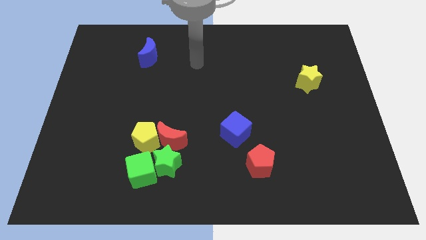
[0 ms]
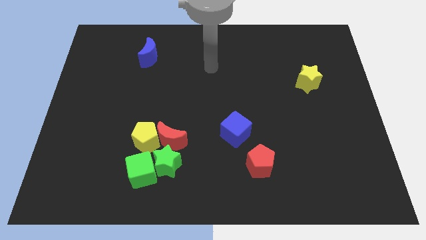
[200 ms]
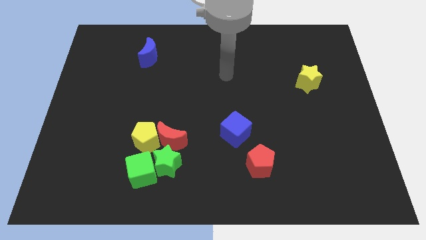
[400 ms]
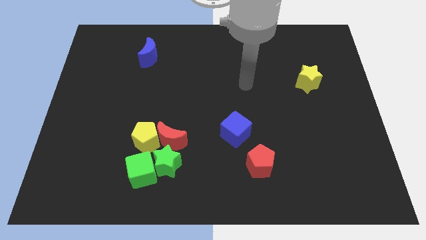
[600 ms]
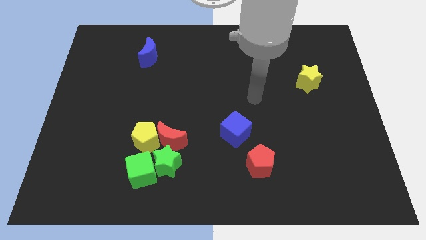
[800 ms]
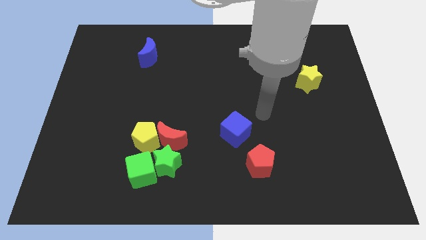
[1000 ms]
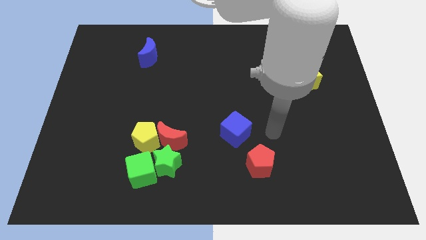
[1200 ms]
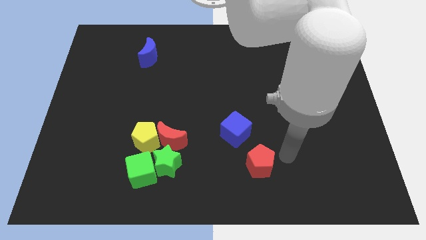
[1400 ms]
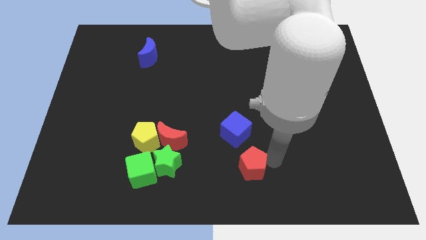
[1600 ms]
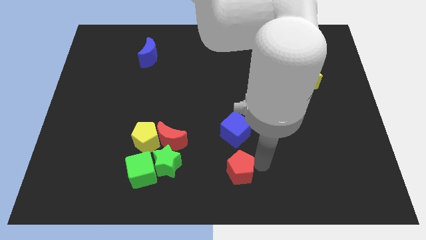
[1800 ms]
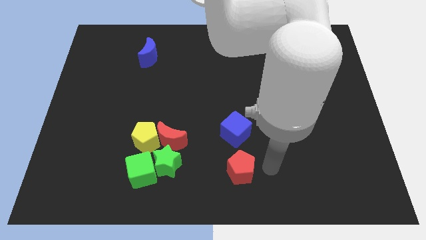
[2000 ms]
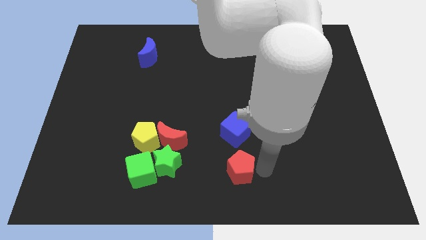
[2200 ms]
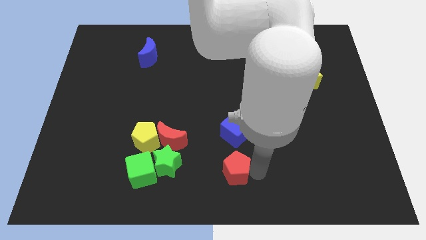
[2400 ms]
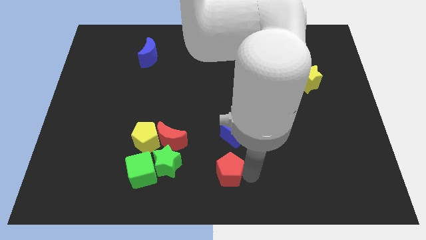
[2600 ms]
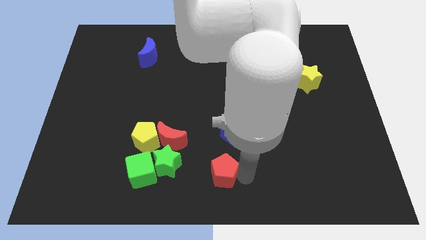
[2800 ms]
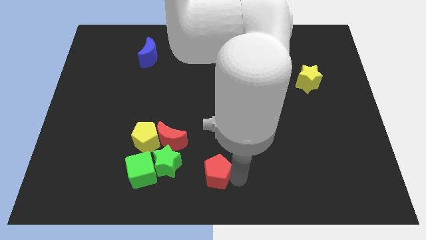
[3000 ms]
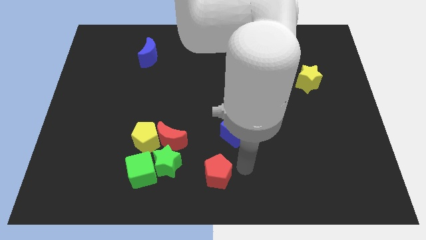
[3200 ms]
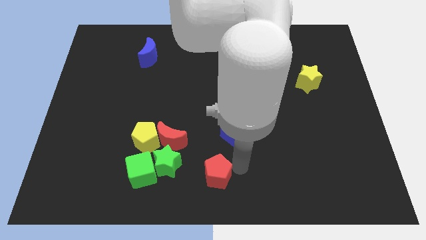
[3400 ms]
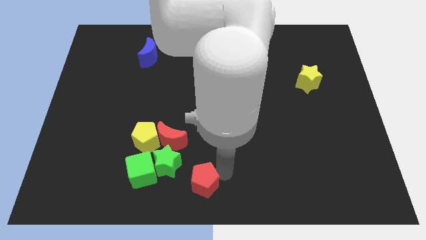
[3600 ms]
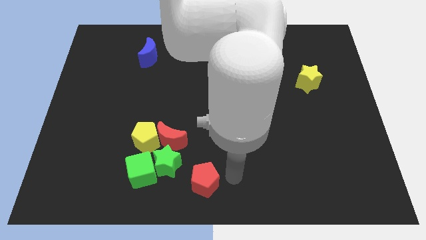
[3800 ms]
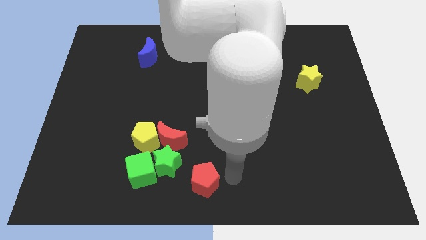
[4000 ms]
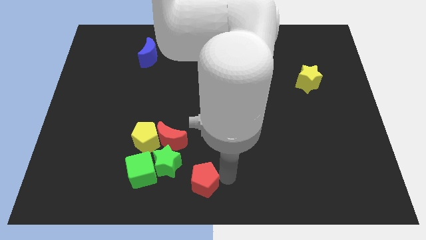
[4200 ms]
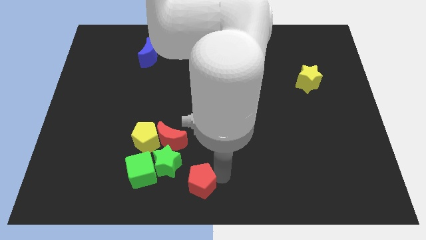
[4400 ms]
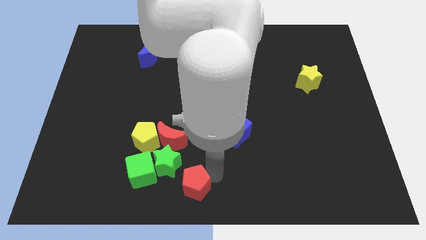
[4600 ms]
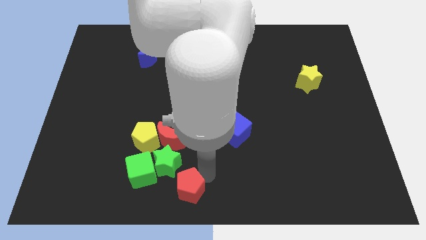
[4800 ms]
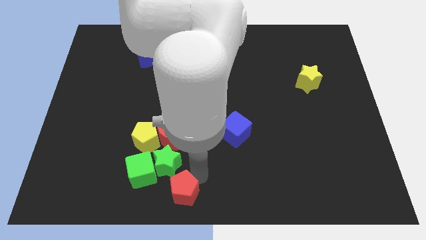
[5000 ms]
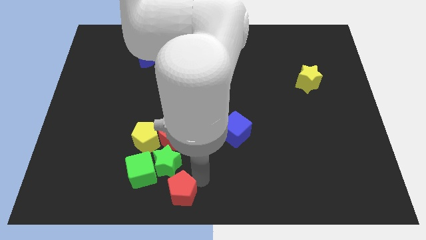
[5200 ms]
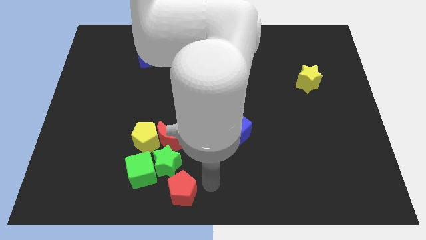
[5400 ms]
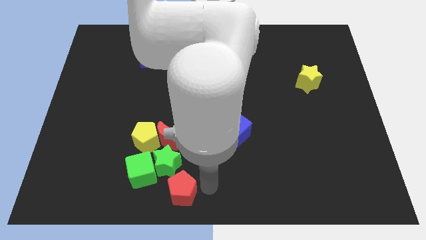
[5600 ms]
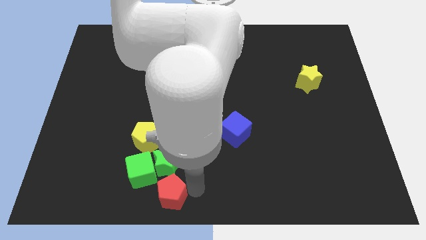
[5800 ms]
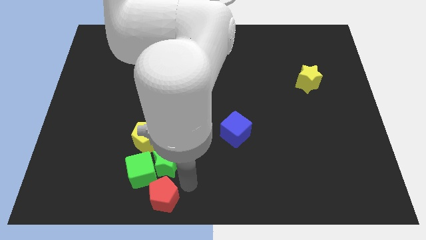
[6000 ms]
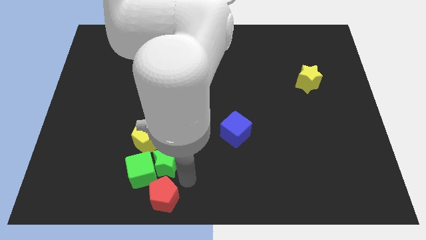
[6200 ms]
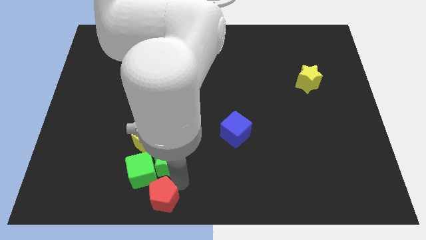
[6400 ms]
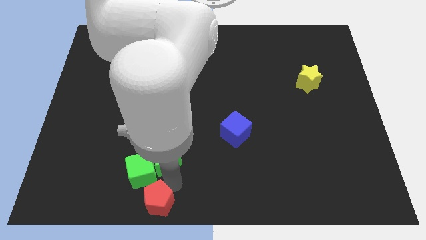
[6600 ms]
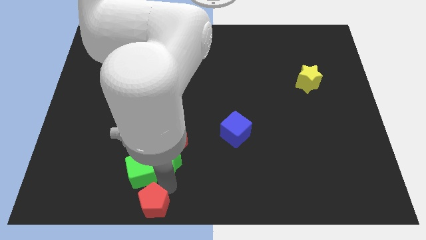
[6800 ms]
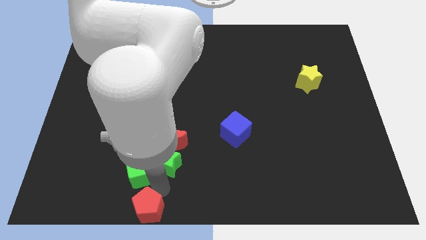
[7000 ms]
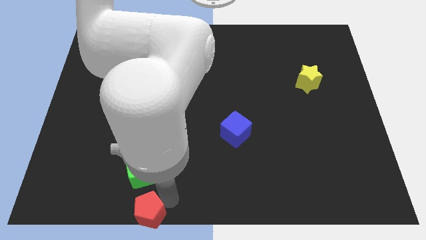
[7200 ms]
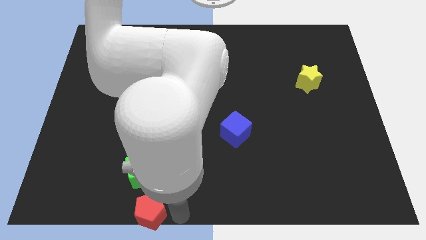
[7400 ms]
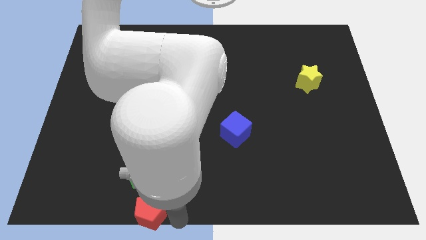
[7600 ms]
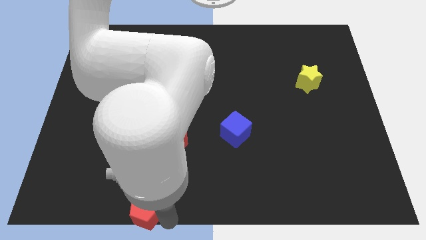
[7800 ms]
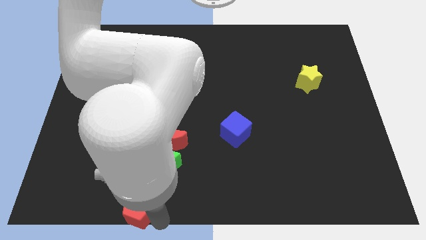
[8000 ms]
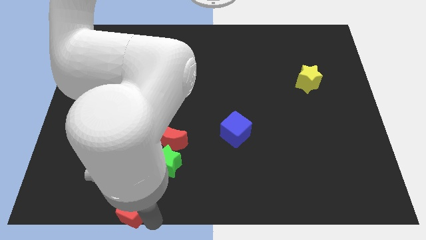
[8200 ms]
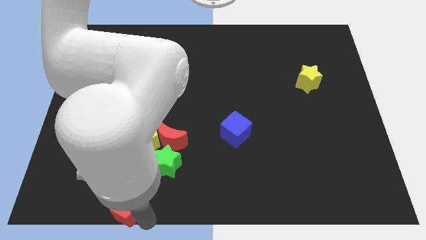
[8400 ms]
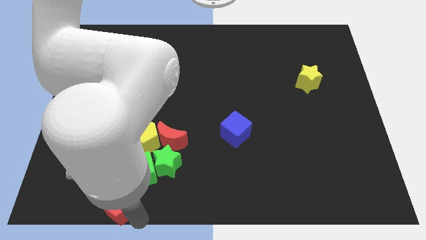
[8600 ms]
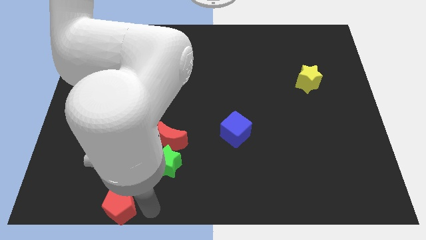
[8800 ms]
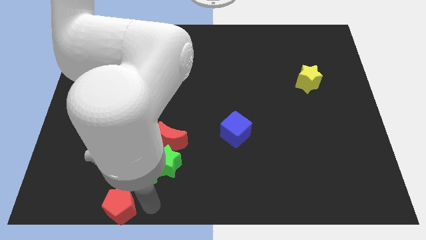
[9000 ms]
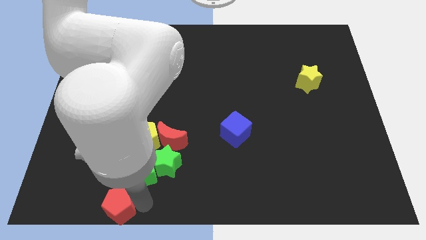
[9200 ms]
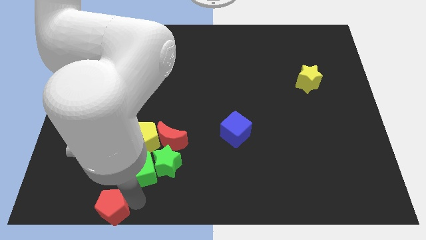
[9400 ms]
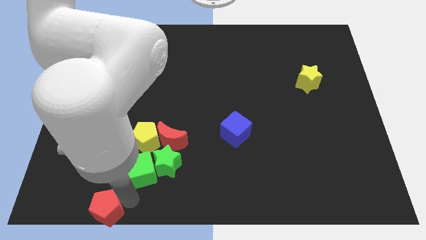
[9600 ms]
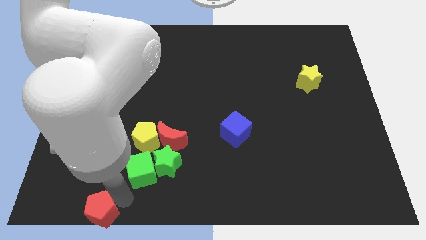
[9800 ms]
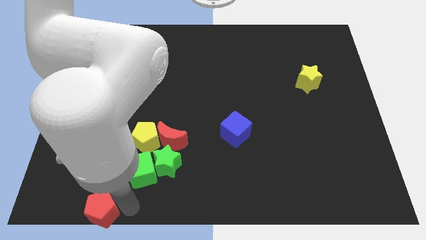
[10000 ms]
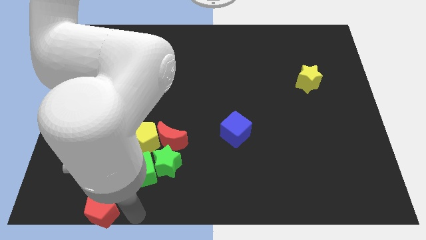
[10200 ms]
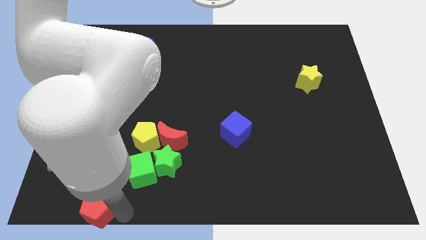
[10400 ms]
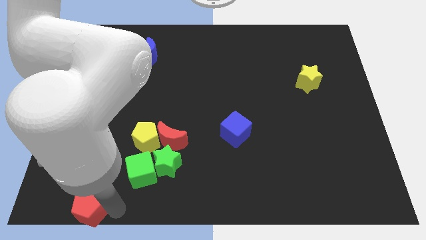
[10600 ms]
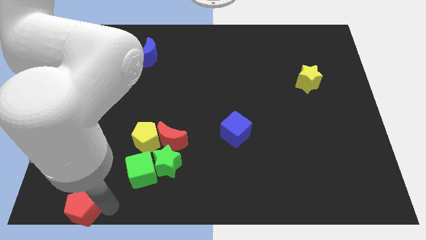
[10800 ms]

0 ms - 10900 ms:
slide the red pentagon to the bottom left of the board
